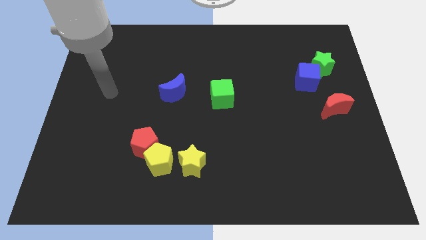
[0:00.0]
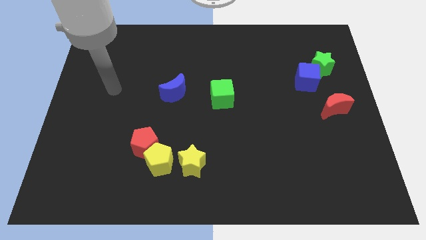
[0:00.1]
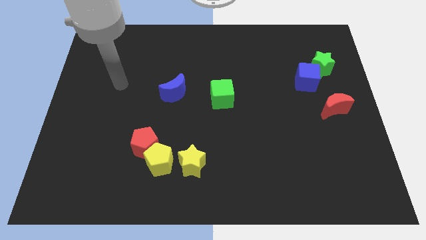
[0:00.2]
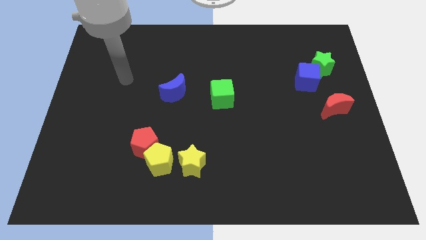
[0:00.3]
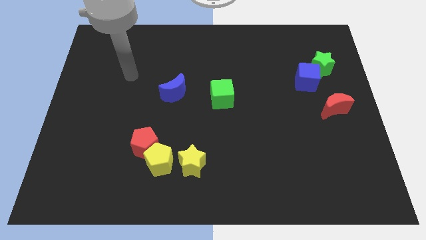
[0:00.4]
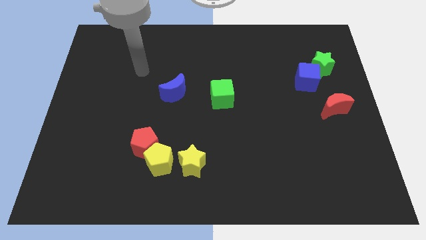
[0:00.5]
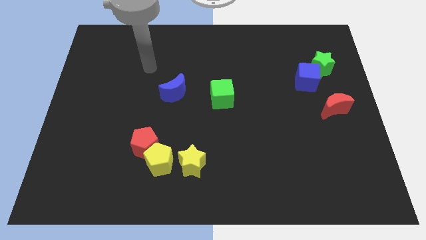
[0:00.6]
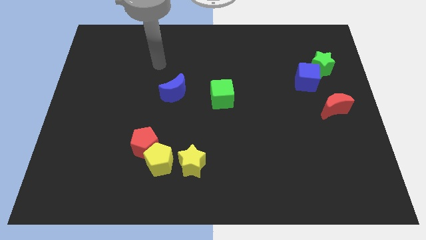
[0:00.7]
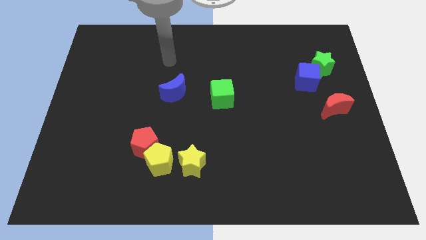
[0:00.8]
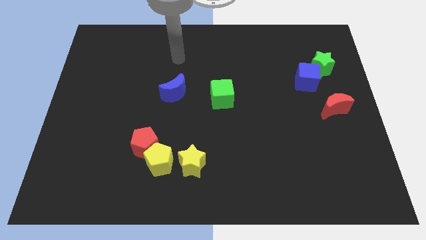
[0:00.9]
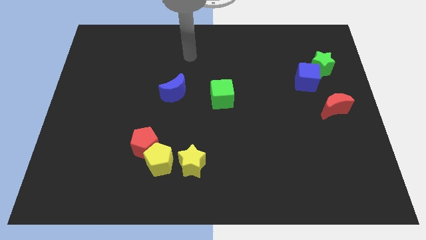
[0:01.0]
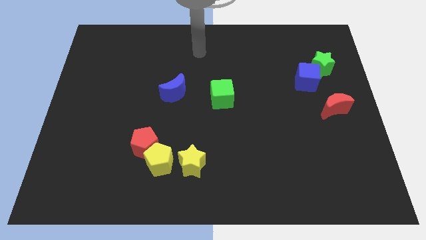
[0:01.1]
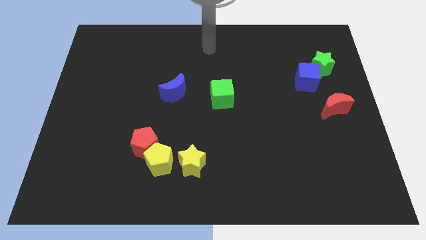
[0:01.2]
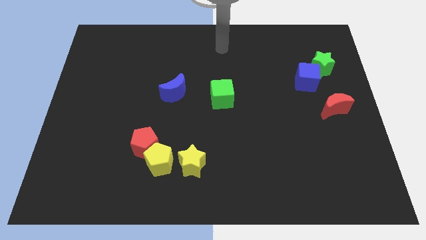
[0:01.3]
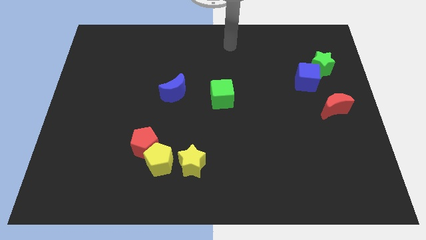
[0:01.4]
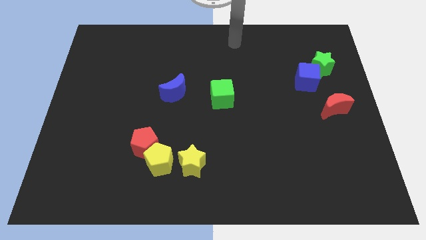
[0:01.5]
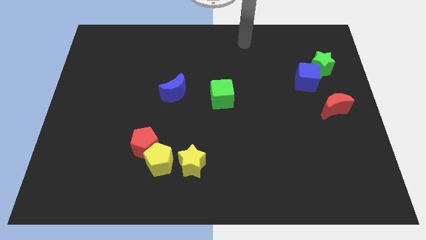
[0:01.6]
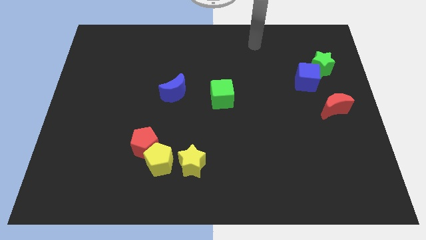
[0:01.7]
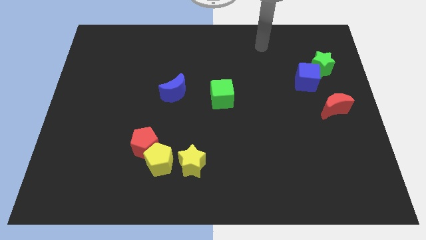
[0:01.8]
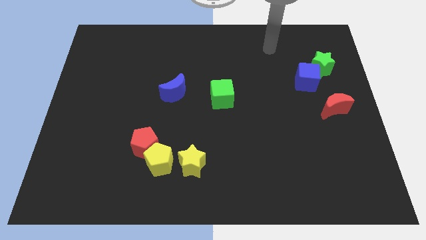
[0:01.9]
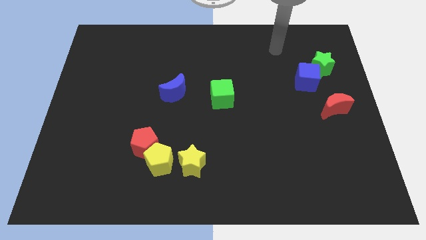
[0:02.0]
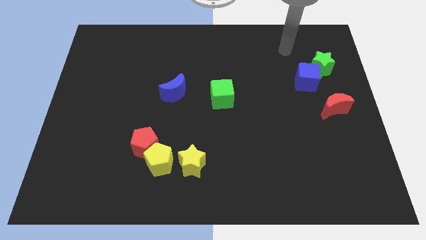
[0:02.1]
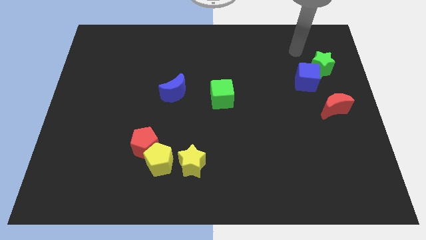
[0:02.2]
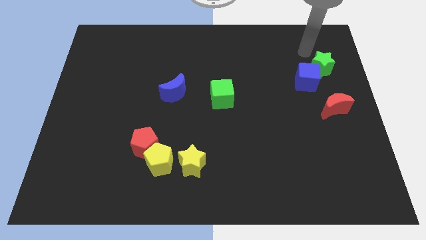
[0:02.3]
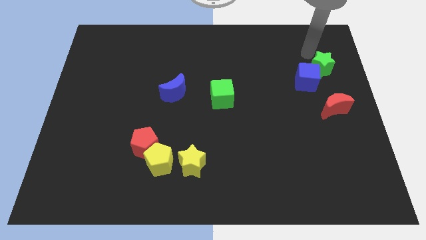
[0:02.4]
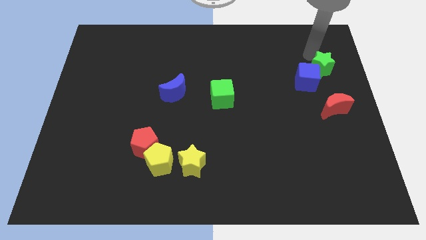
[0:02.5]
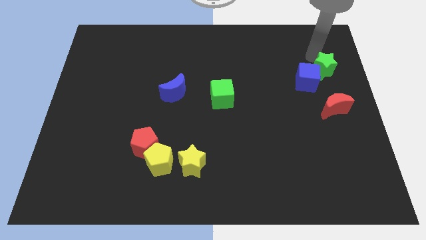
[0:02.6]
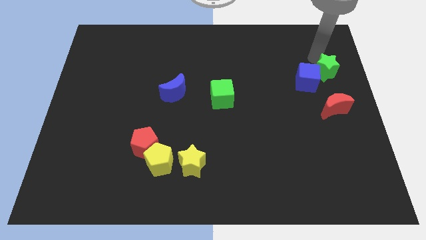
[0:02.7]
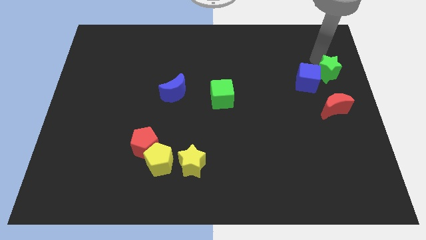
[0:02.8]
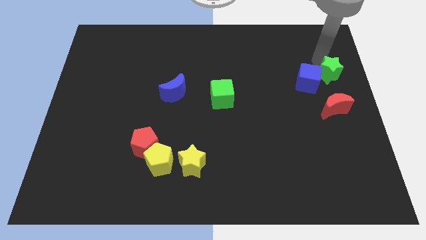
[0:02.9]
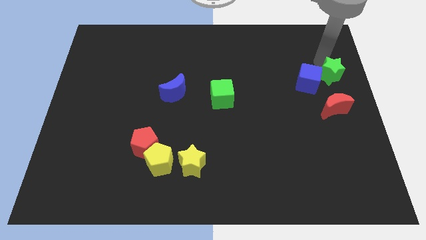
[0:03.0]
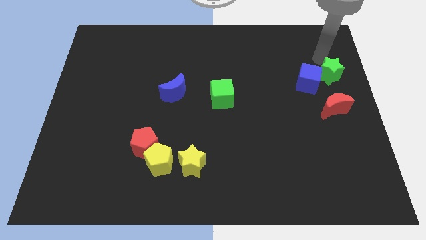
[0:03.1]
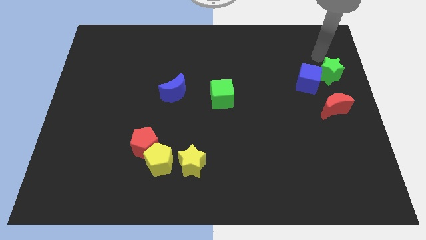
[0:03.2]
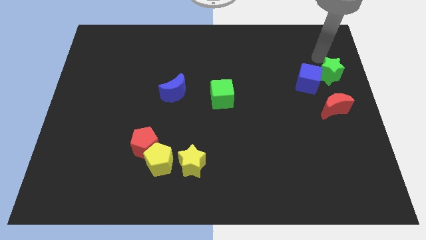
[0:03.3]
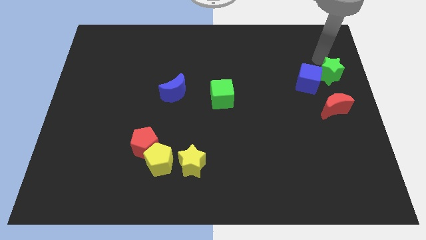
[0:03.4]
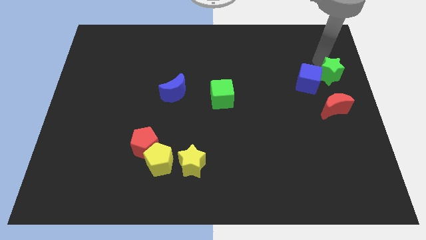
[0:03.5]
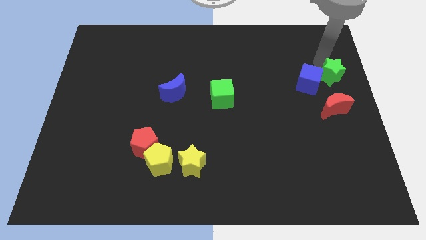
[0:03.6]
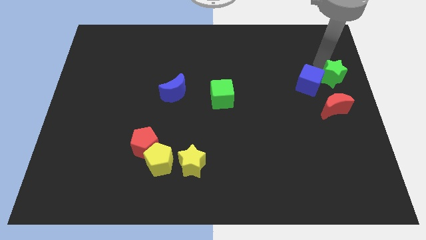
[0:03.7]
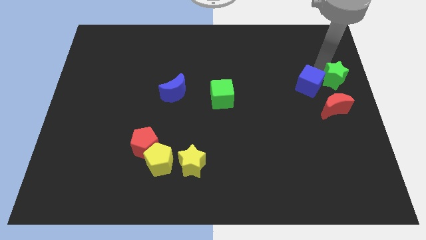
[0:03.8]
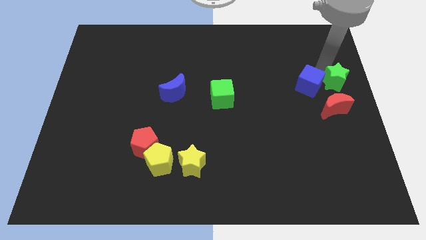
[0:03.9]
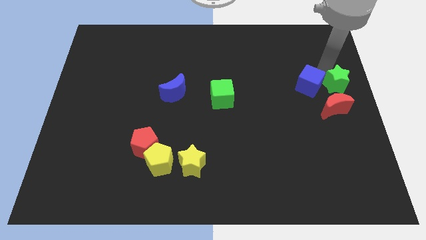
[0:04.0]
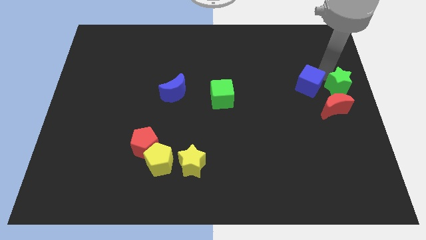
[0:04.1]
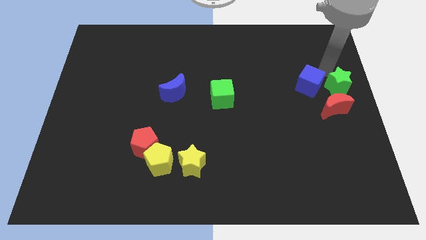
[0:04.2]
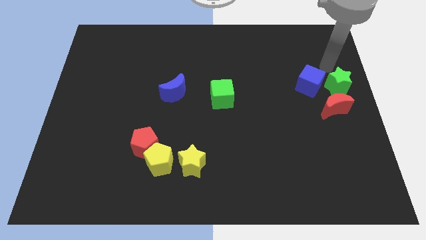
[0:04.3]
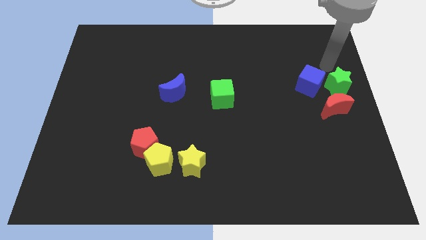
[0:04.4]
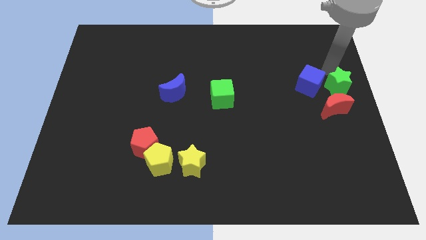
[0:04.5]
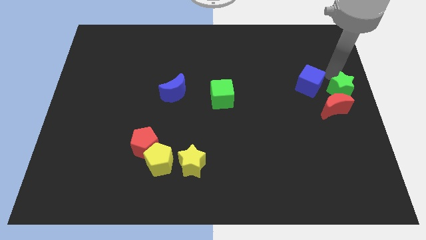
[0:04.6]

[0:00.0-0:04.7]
move the green star a little bit down

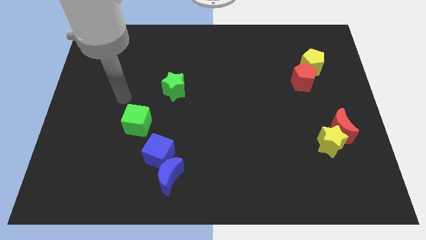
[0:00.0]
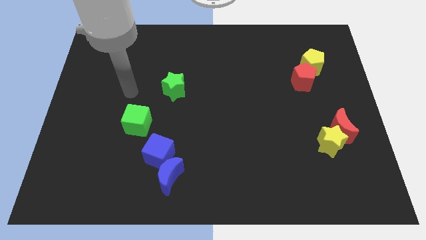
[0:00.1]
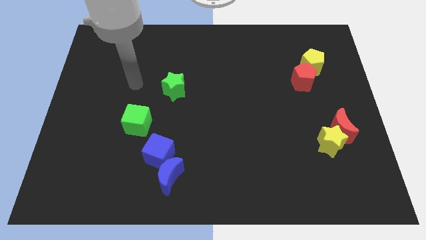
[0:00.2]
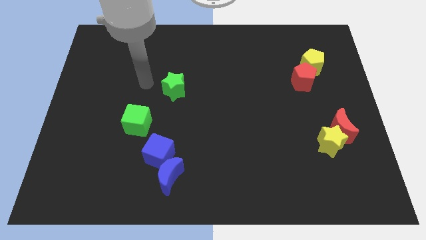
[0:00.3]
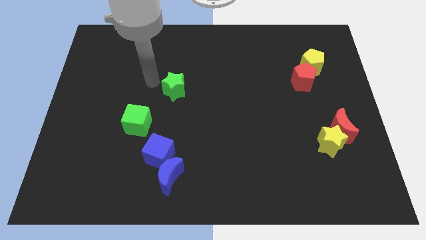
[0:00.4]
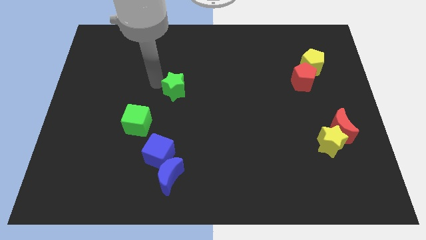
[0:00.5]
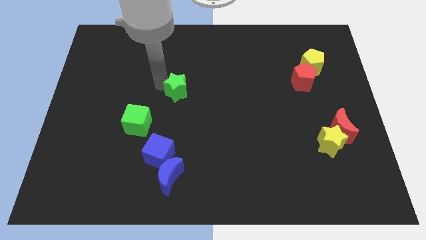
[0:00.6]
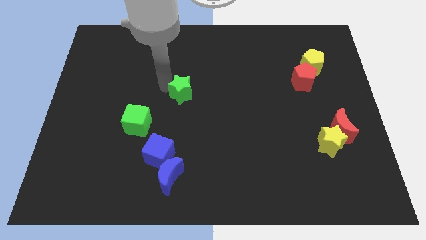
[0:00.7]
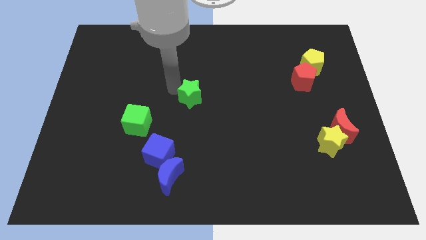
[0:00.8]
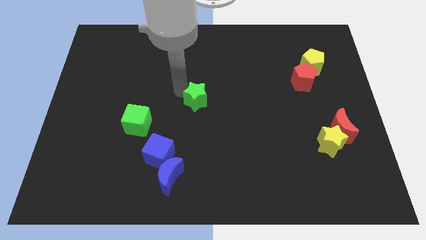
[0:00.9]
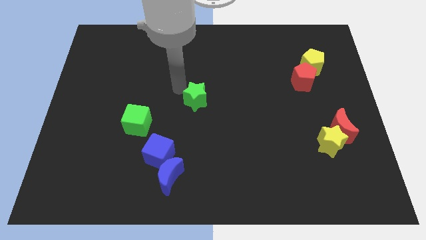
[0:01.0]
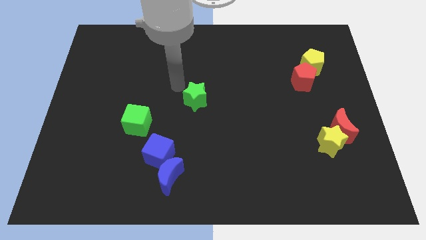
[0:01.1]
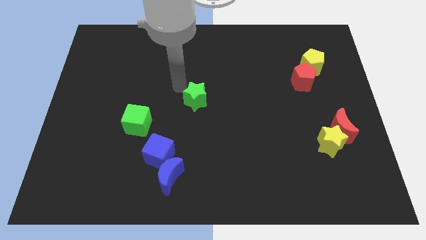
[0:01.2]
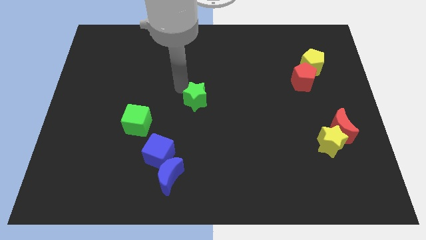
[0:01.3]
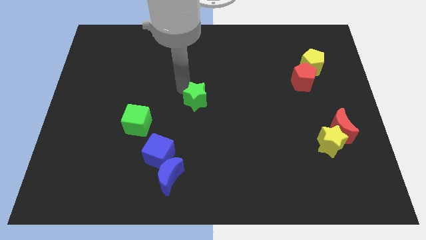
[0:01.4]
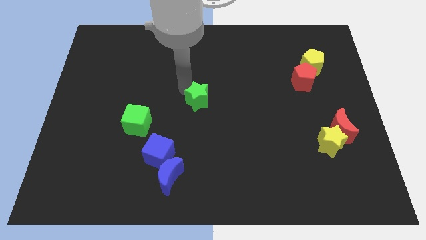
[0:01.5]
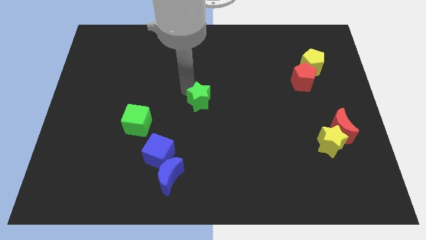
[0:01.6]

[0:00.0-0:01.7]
slide the green star diagonally downwards and right slightly

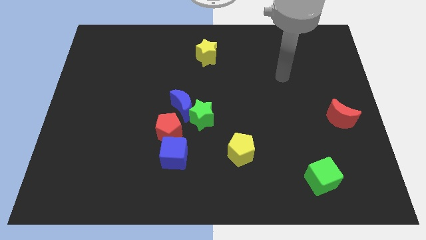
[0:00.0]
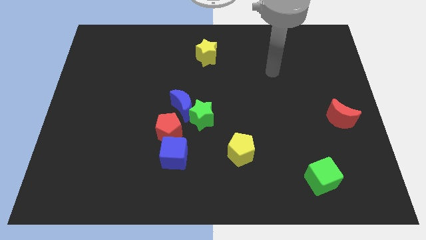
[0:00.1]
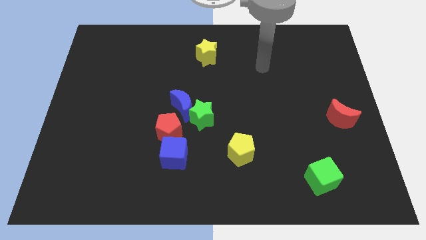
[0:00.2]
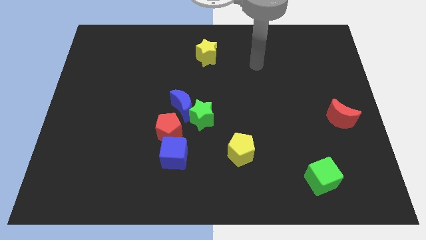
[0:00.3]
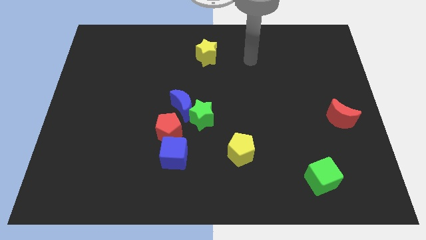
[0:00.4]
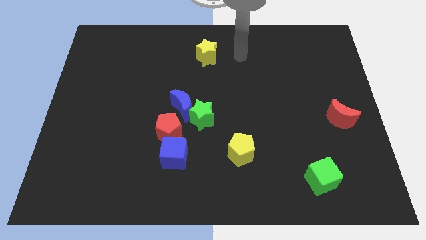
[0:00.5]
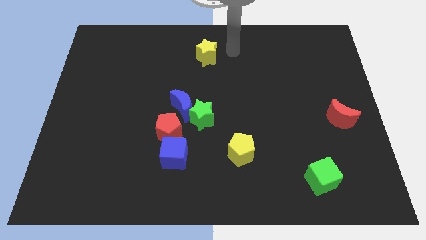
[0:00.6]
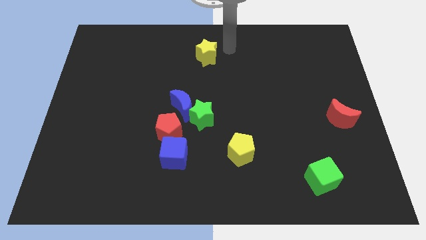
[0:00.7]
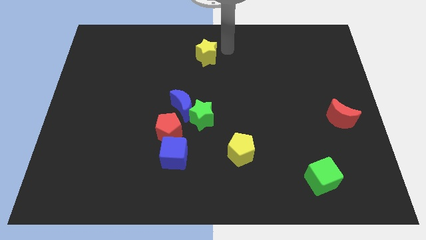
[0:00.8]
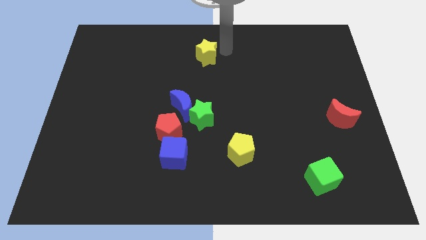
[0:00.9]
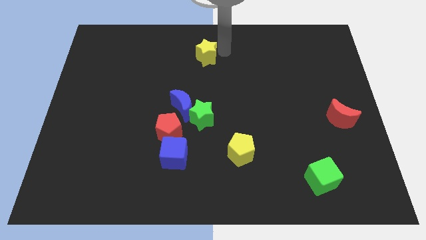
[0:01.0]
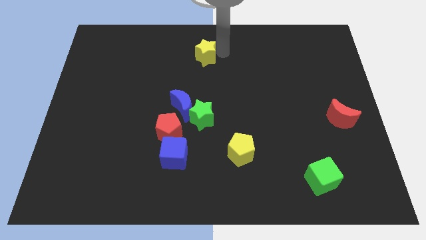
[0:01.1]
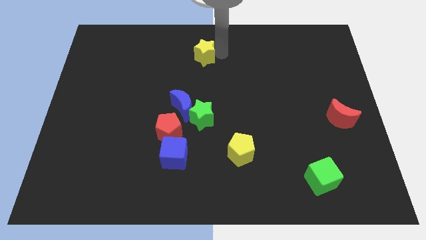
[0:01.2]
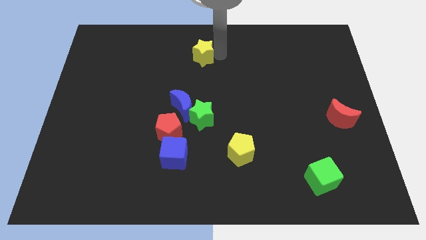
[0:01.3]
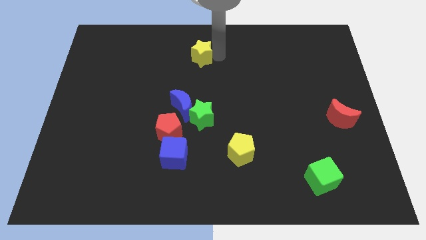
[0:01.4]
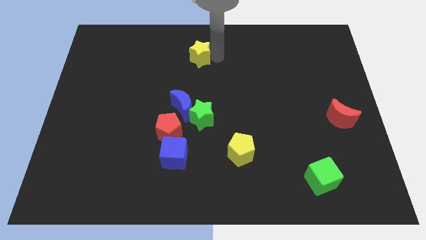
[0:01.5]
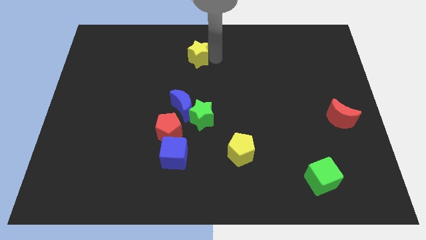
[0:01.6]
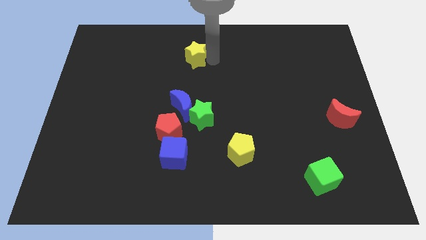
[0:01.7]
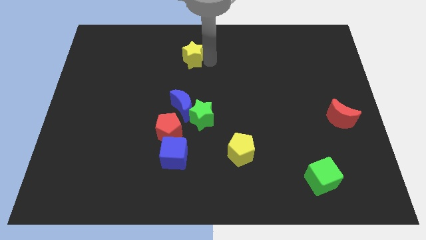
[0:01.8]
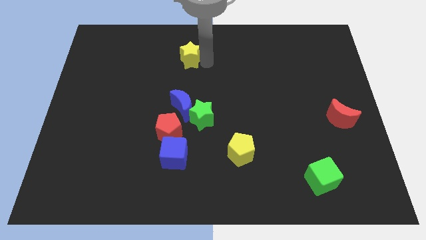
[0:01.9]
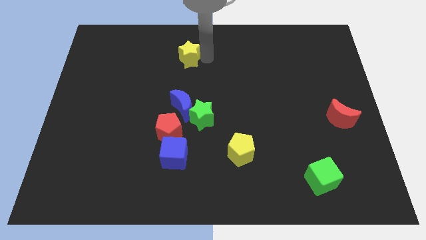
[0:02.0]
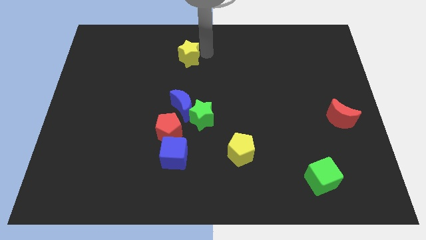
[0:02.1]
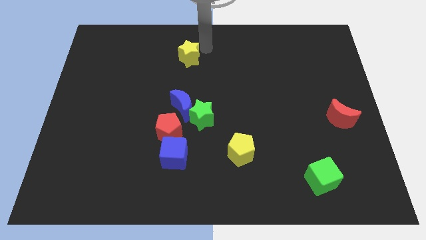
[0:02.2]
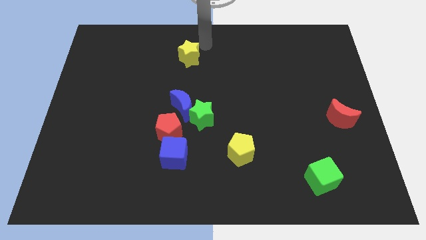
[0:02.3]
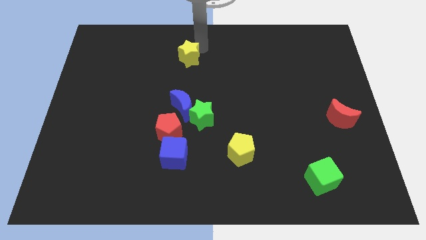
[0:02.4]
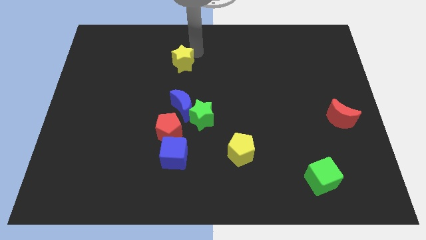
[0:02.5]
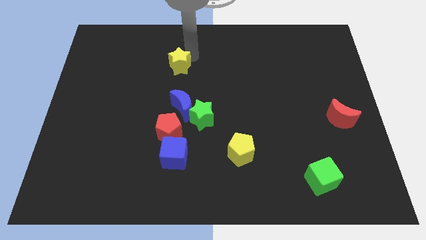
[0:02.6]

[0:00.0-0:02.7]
move the yellow star a little bit down and to the left diagonally
